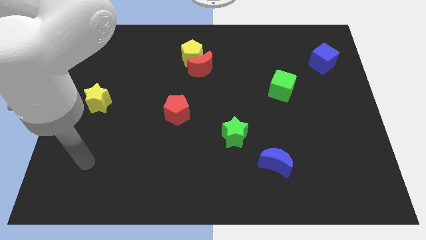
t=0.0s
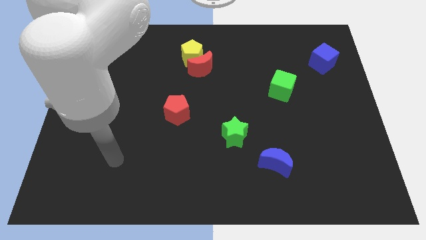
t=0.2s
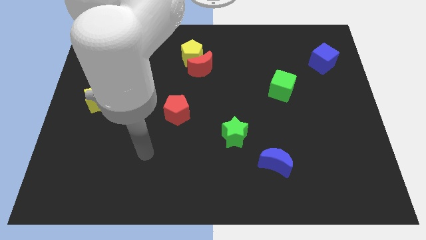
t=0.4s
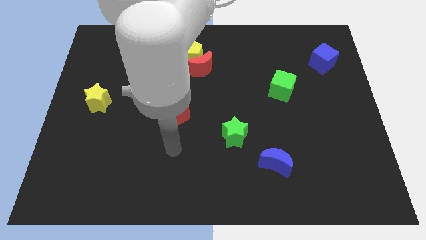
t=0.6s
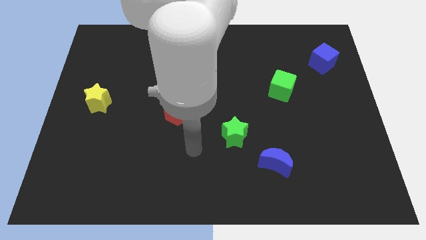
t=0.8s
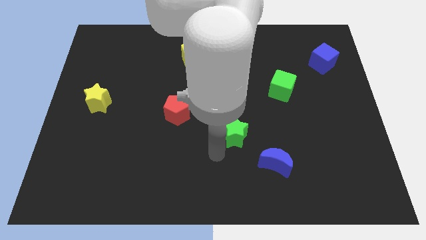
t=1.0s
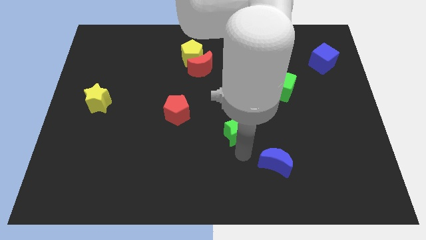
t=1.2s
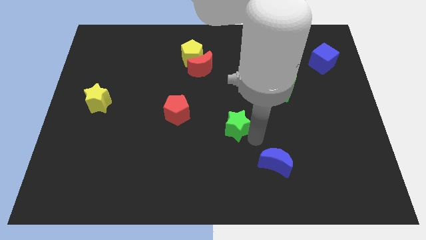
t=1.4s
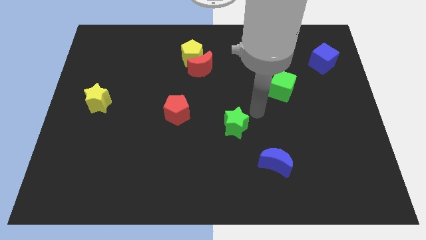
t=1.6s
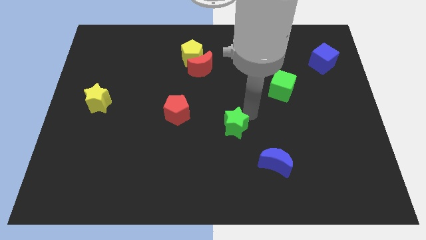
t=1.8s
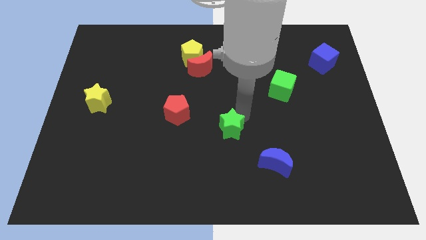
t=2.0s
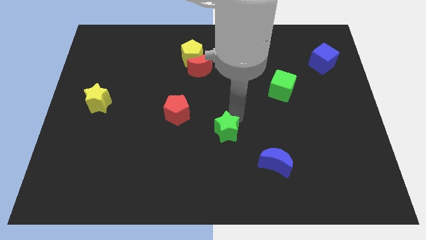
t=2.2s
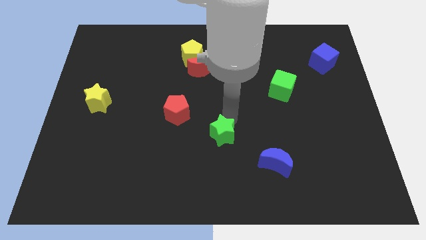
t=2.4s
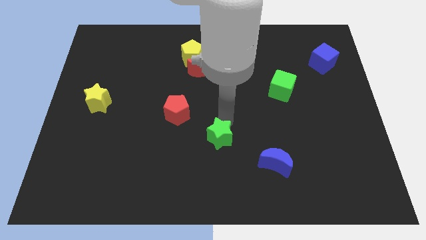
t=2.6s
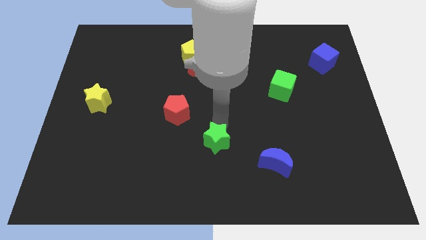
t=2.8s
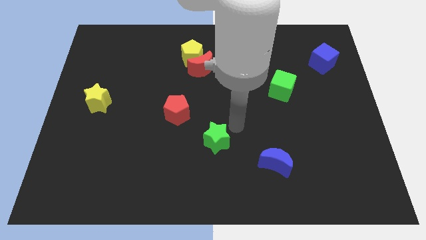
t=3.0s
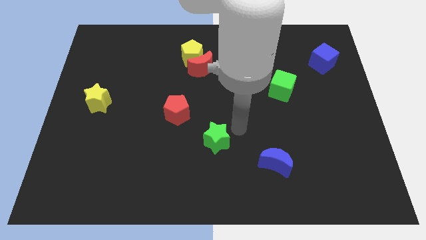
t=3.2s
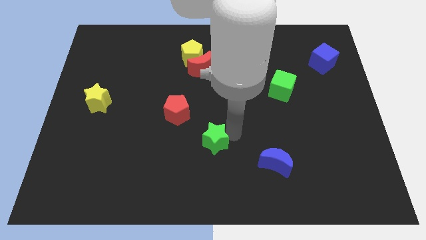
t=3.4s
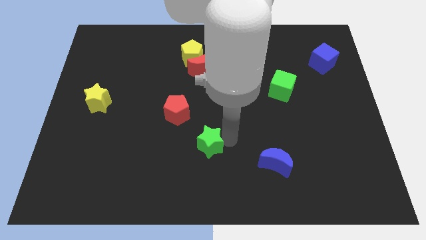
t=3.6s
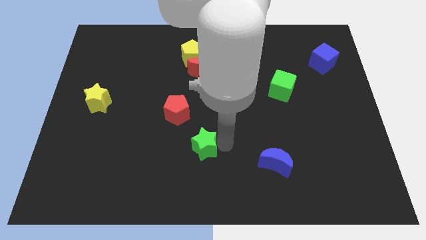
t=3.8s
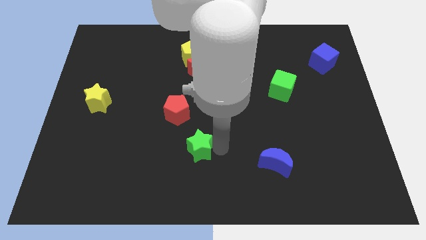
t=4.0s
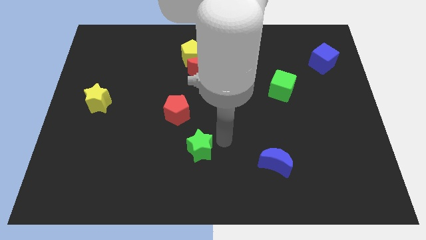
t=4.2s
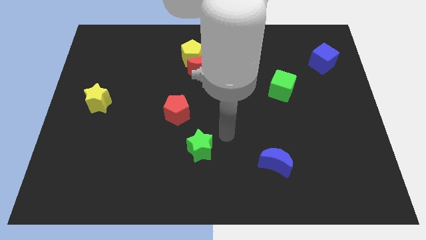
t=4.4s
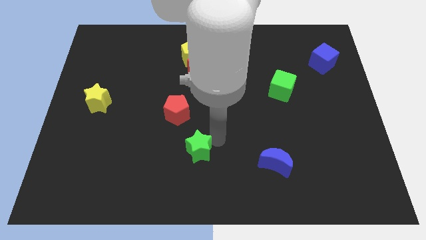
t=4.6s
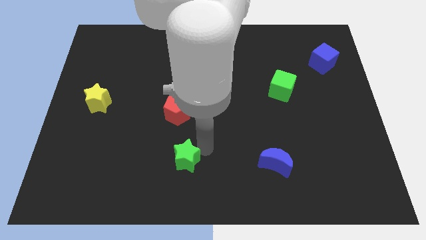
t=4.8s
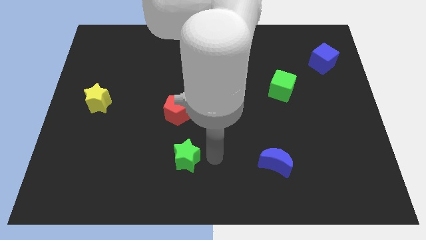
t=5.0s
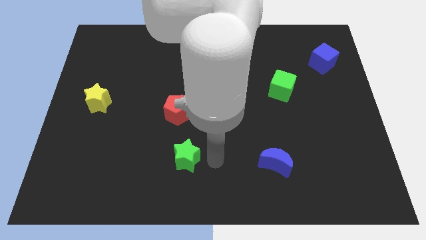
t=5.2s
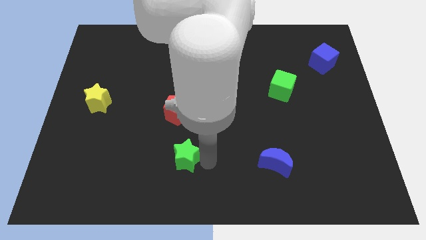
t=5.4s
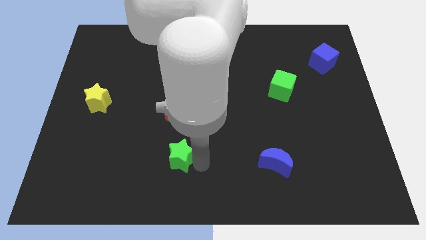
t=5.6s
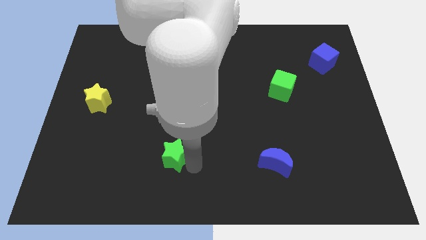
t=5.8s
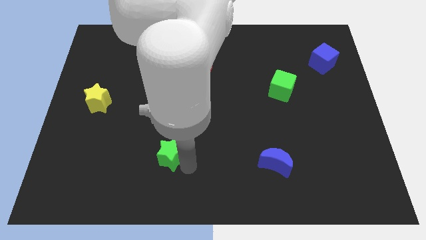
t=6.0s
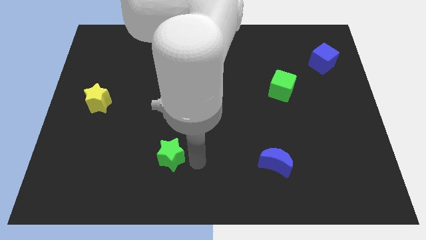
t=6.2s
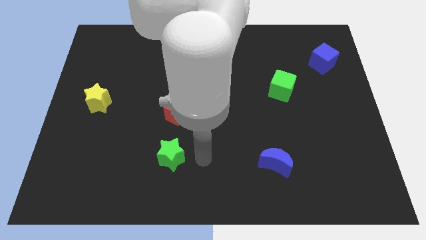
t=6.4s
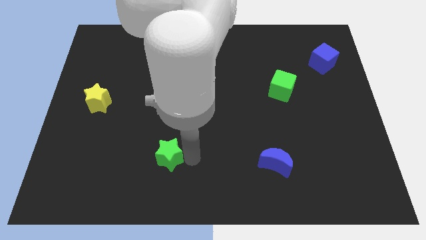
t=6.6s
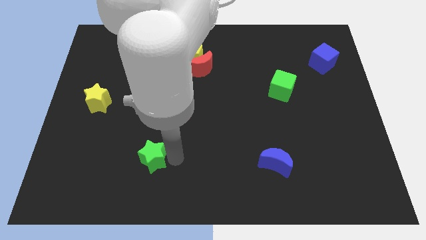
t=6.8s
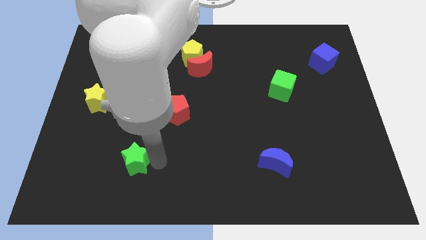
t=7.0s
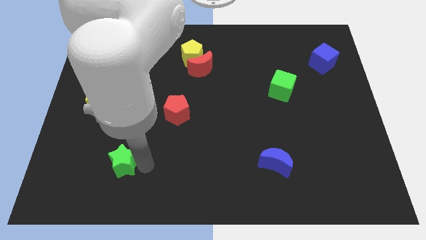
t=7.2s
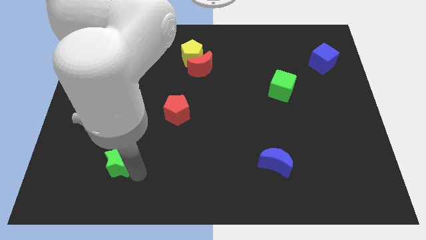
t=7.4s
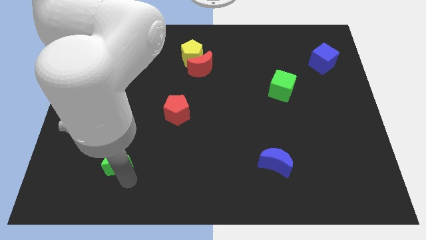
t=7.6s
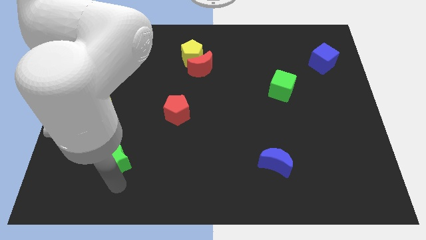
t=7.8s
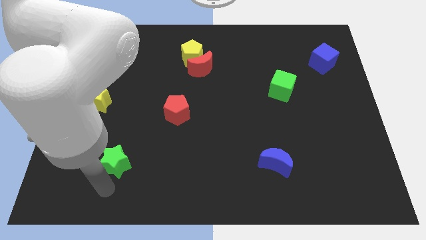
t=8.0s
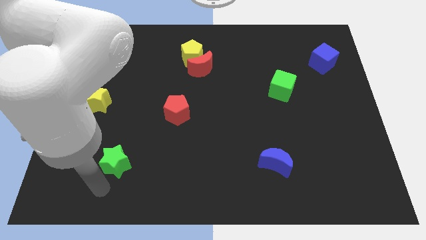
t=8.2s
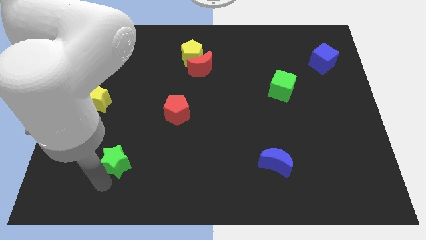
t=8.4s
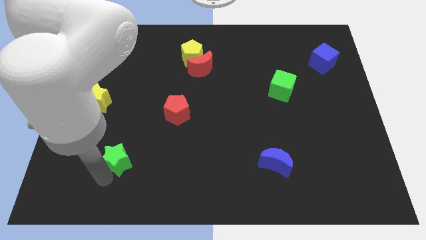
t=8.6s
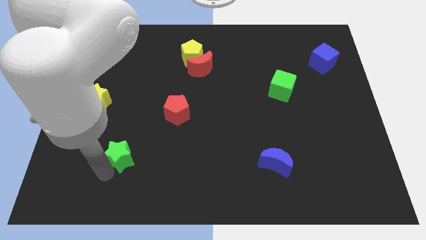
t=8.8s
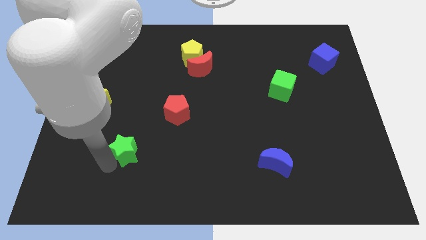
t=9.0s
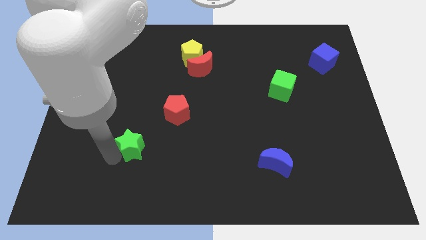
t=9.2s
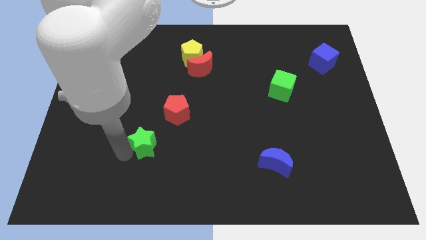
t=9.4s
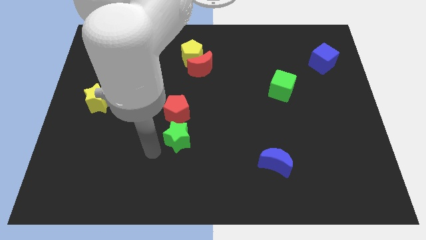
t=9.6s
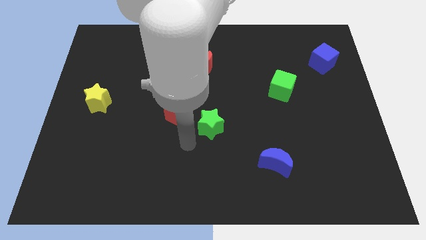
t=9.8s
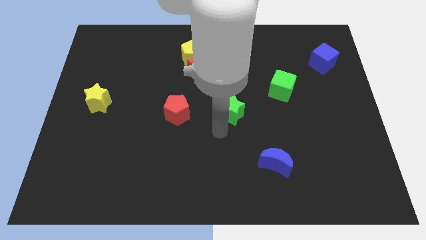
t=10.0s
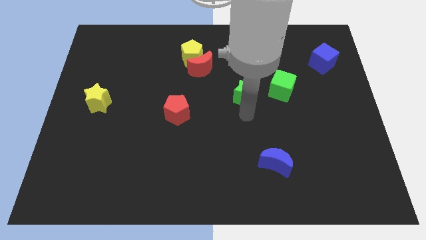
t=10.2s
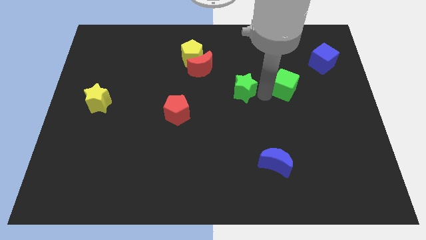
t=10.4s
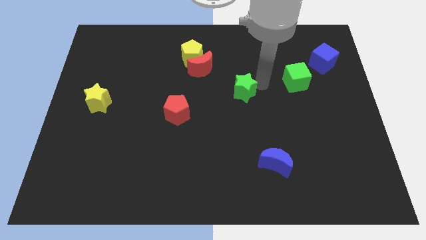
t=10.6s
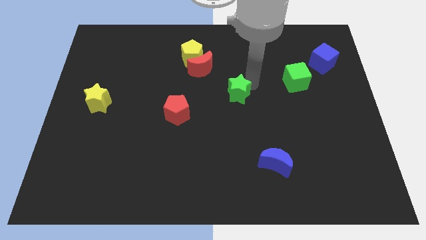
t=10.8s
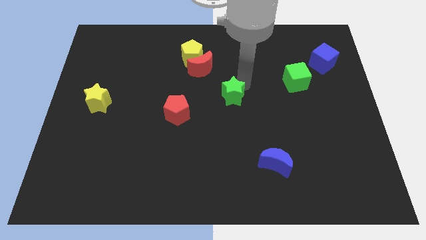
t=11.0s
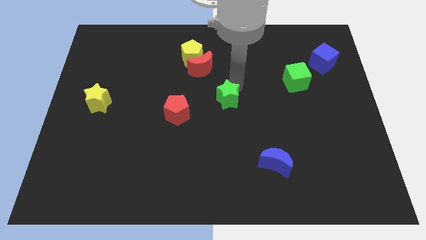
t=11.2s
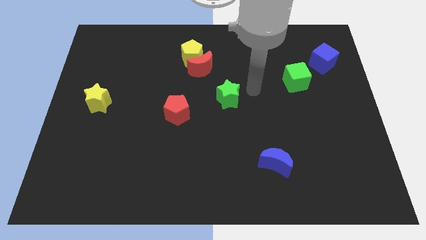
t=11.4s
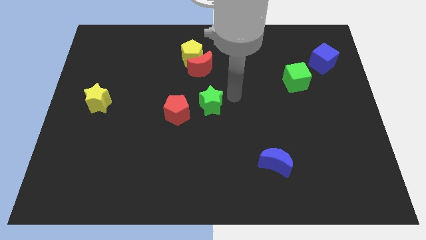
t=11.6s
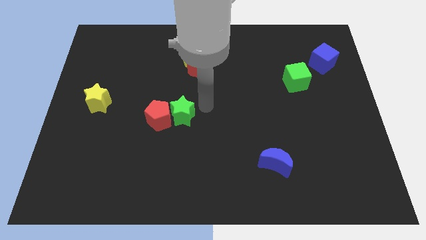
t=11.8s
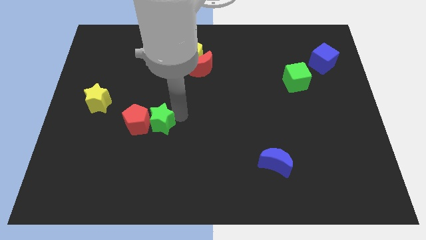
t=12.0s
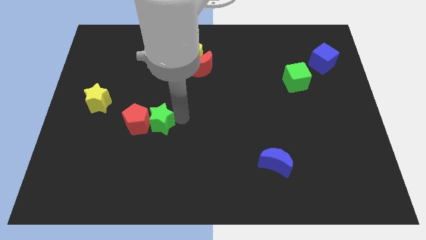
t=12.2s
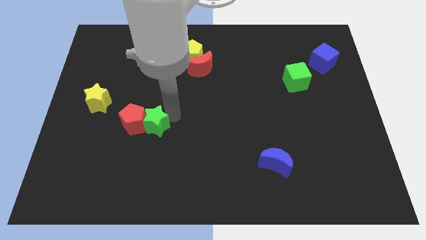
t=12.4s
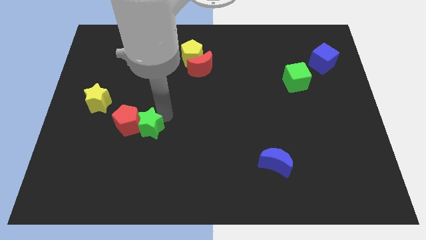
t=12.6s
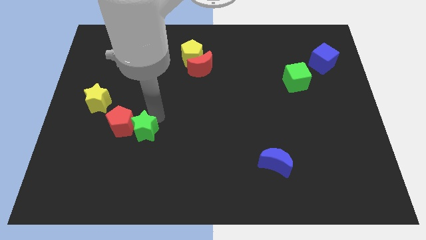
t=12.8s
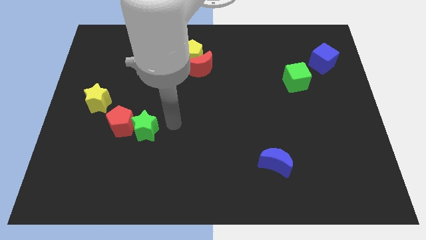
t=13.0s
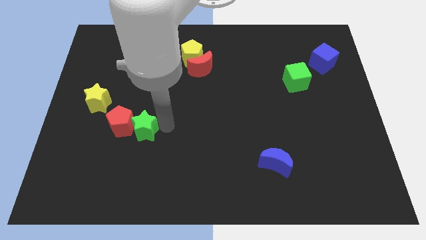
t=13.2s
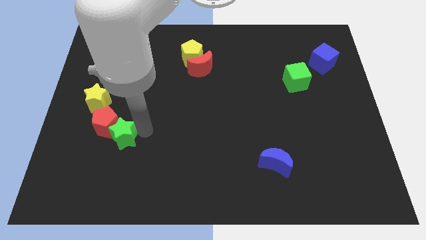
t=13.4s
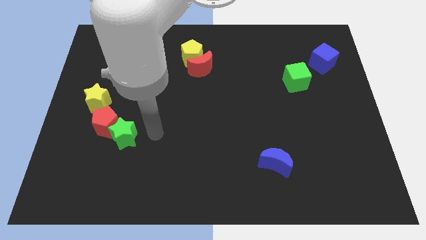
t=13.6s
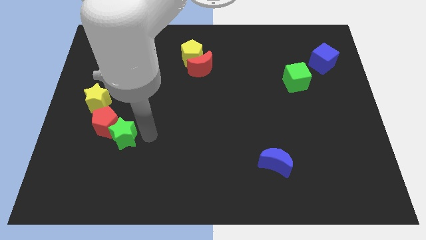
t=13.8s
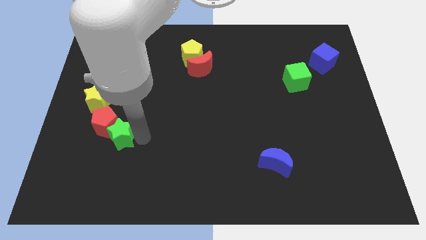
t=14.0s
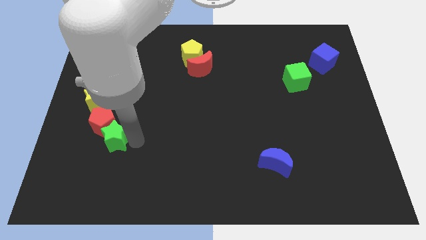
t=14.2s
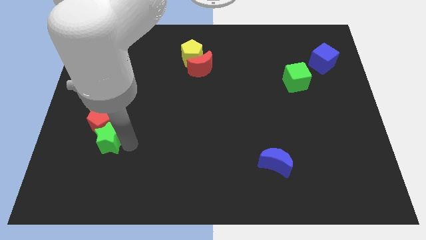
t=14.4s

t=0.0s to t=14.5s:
put the green star to the bottom side of the yellow star
